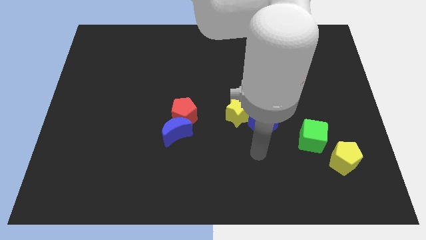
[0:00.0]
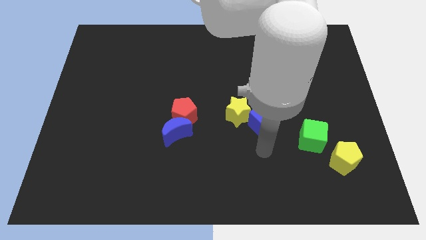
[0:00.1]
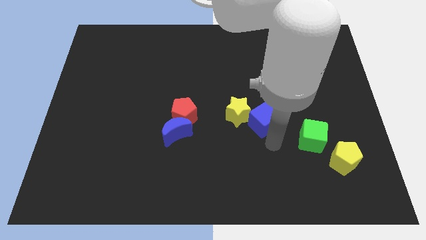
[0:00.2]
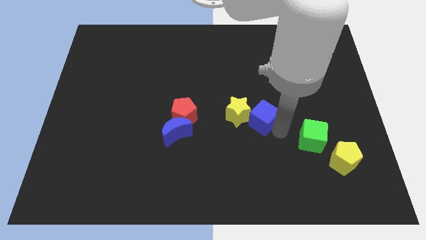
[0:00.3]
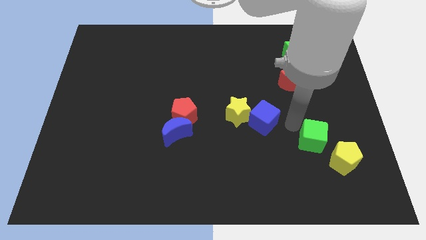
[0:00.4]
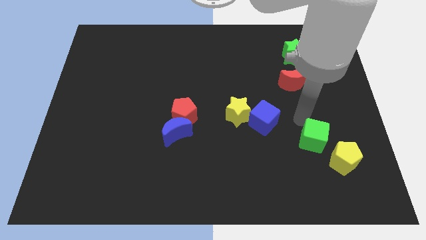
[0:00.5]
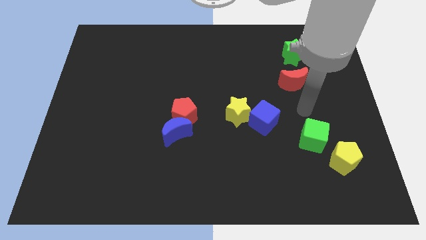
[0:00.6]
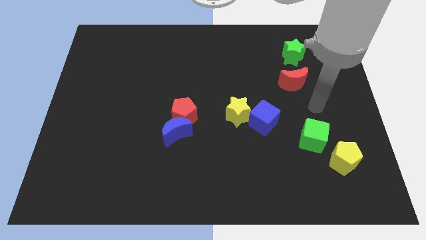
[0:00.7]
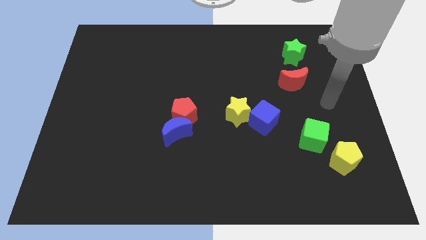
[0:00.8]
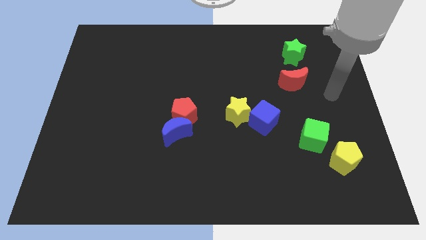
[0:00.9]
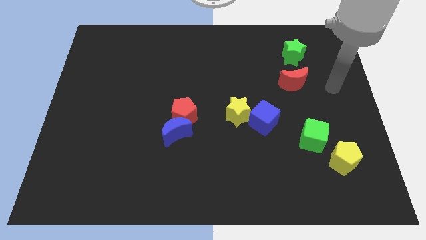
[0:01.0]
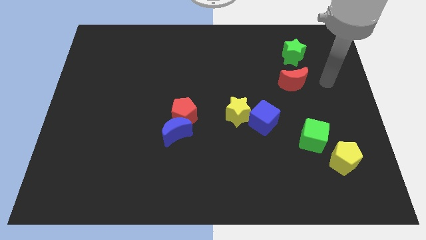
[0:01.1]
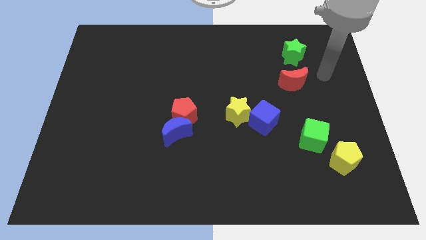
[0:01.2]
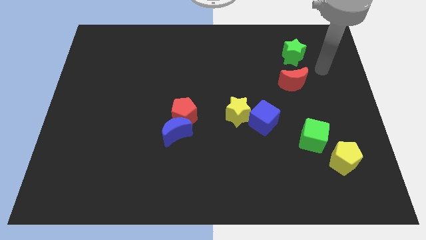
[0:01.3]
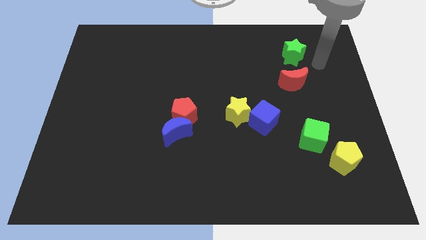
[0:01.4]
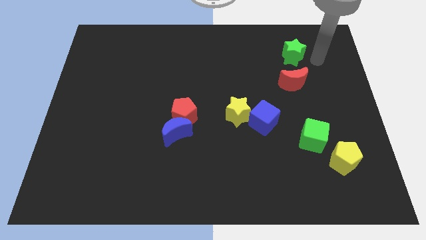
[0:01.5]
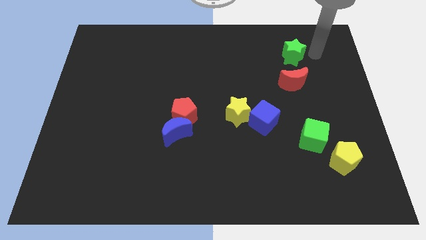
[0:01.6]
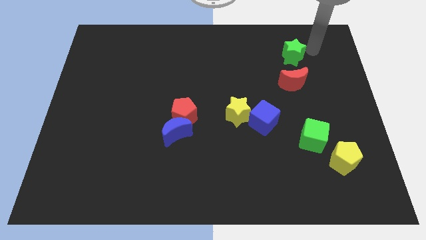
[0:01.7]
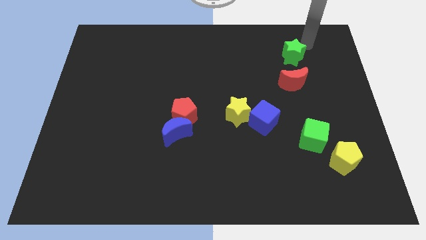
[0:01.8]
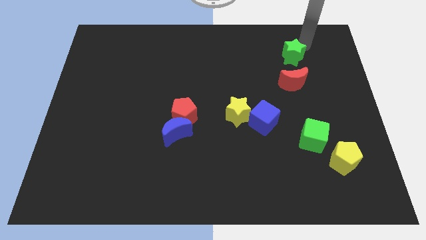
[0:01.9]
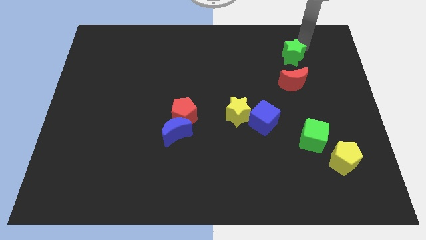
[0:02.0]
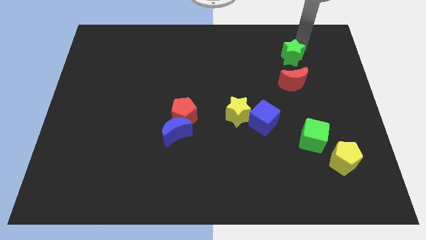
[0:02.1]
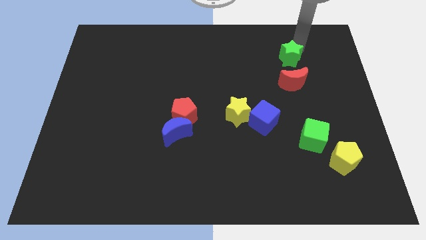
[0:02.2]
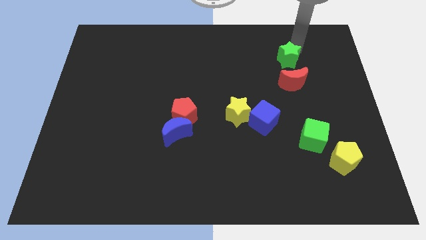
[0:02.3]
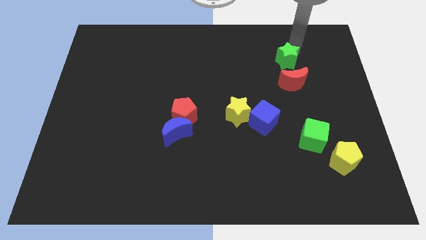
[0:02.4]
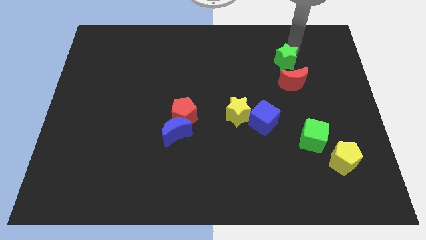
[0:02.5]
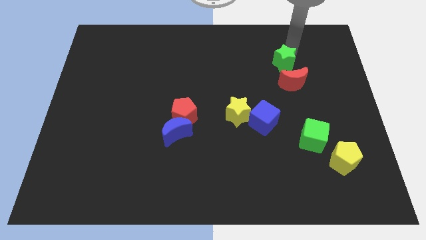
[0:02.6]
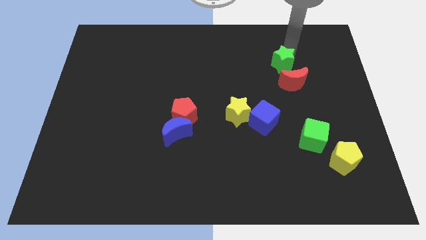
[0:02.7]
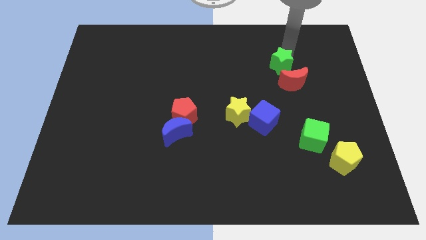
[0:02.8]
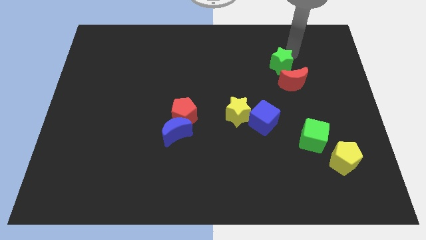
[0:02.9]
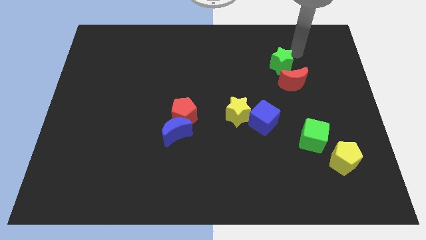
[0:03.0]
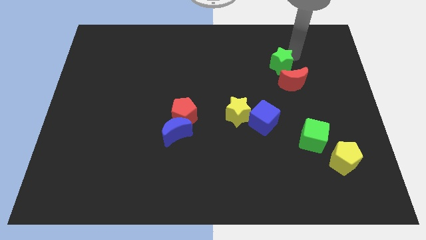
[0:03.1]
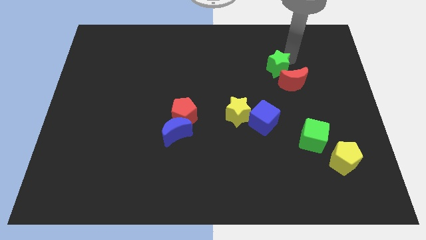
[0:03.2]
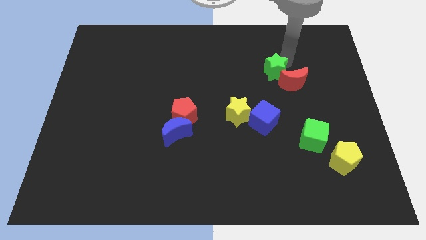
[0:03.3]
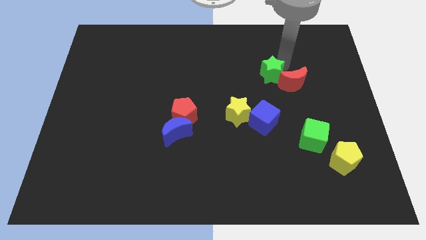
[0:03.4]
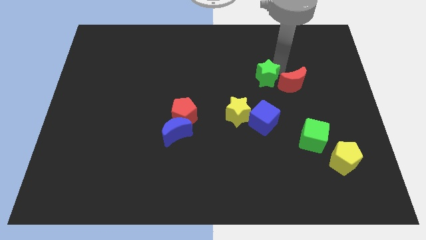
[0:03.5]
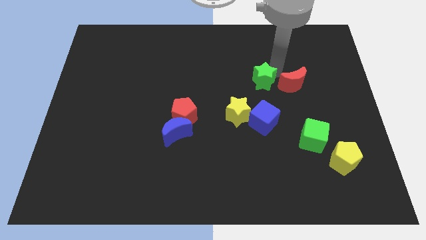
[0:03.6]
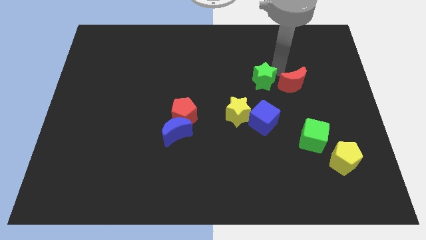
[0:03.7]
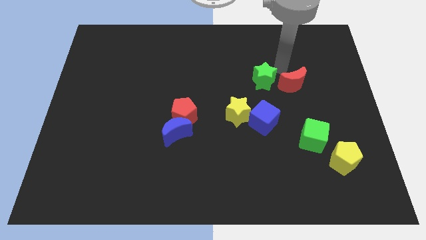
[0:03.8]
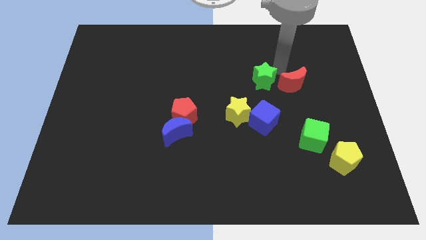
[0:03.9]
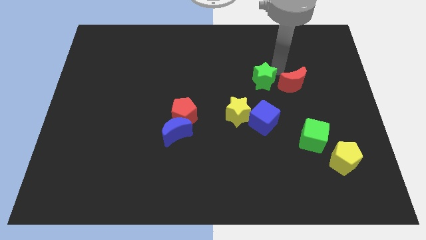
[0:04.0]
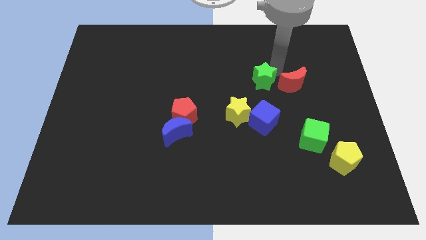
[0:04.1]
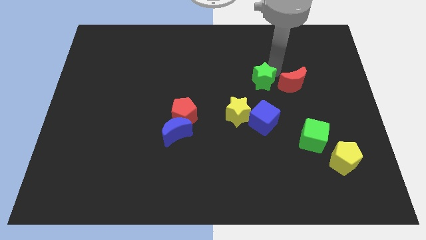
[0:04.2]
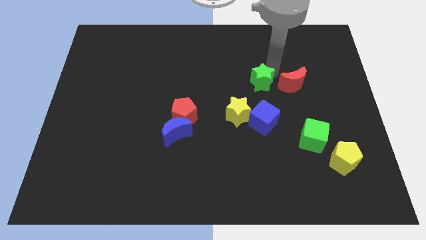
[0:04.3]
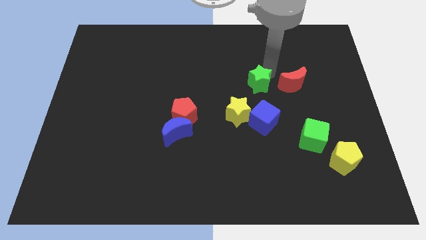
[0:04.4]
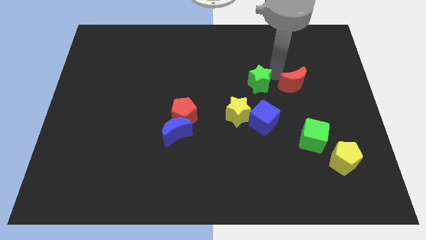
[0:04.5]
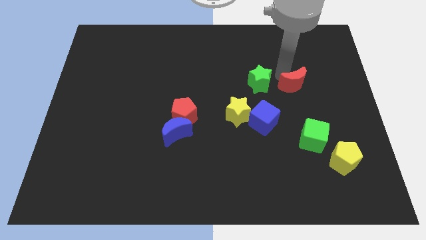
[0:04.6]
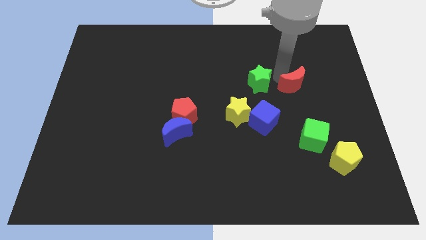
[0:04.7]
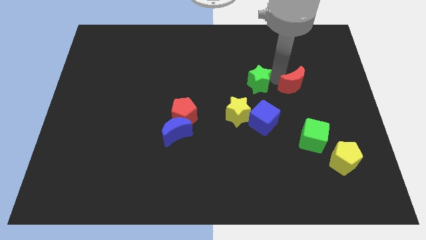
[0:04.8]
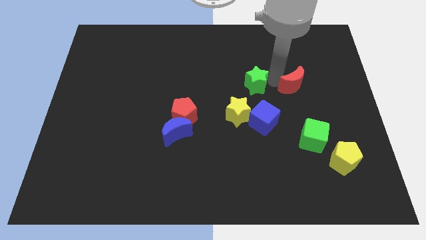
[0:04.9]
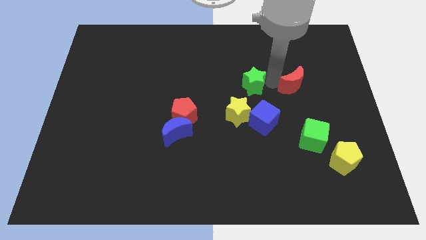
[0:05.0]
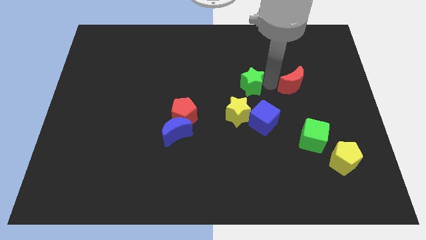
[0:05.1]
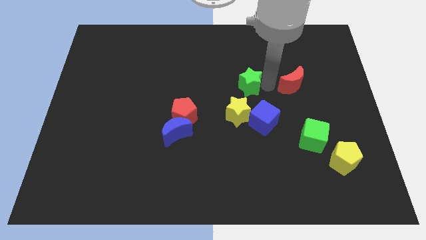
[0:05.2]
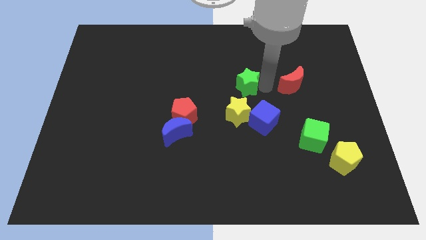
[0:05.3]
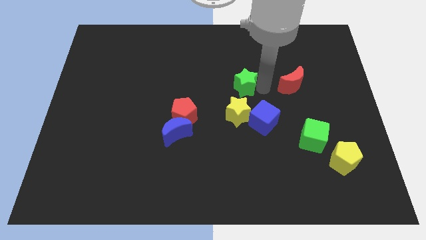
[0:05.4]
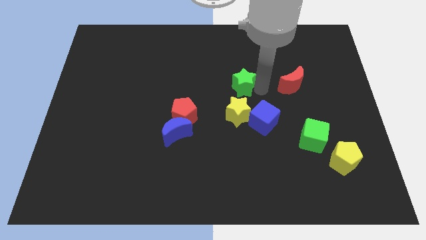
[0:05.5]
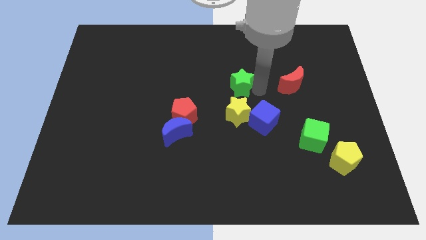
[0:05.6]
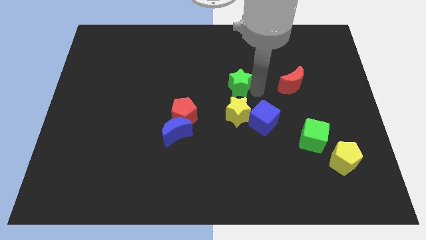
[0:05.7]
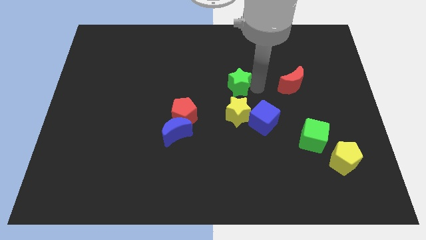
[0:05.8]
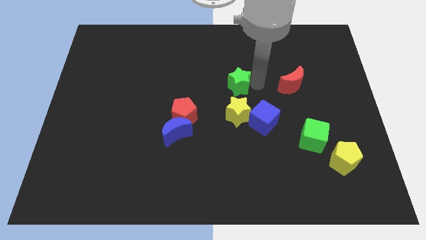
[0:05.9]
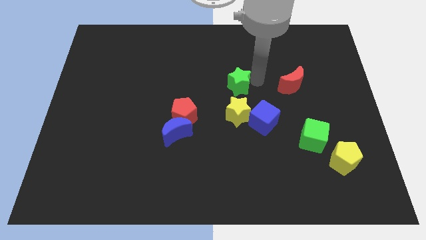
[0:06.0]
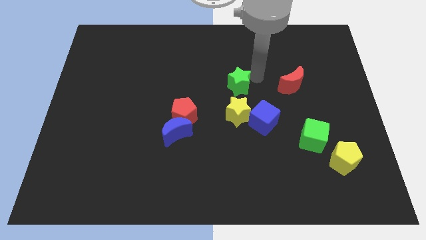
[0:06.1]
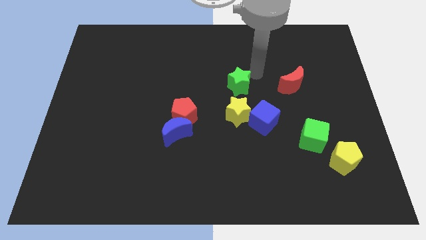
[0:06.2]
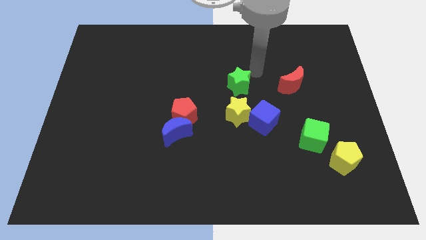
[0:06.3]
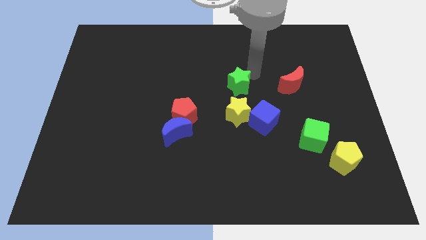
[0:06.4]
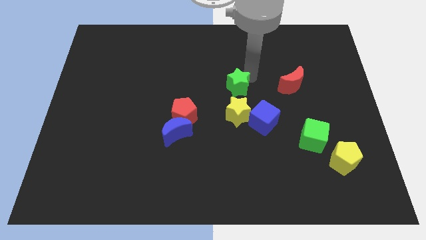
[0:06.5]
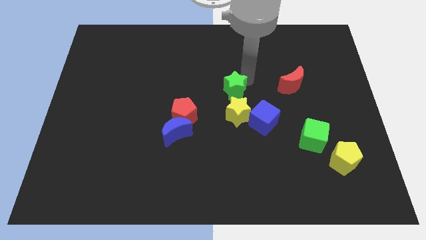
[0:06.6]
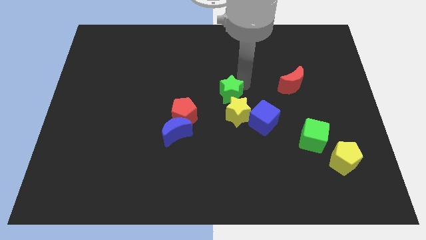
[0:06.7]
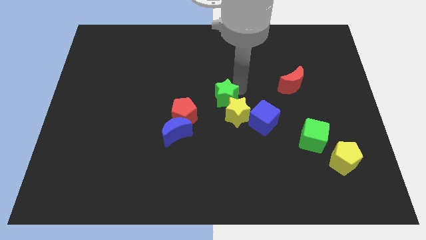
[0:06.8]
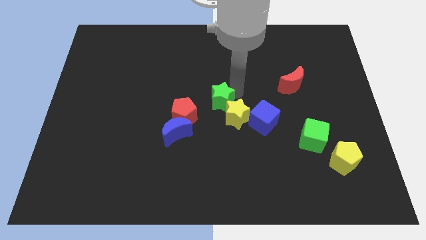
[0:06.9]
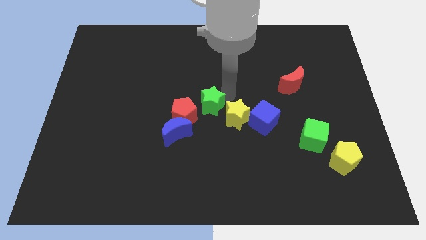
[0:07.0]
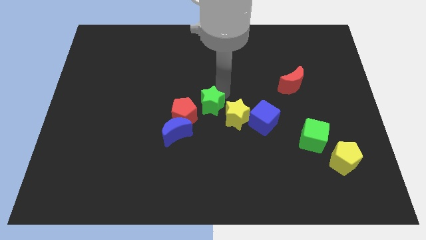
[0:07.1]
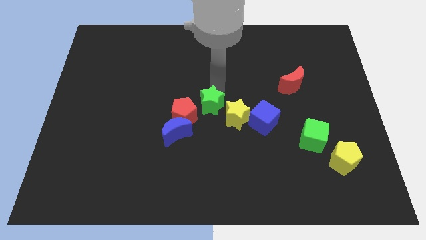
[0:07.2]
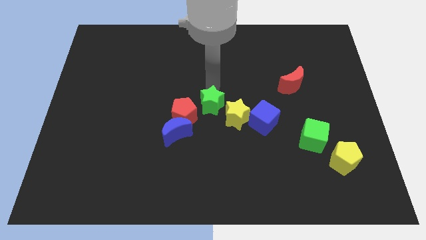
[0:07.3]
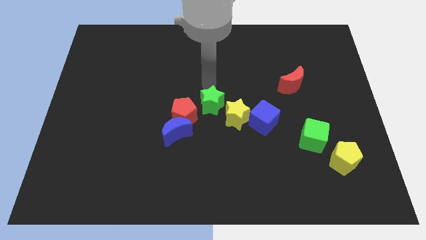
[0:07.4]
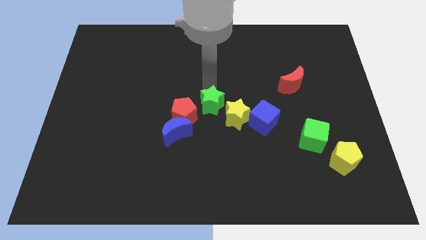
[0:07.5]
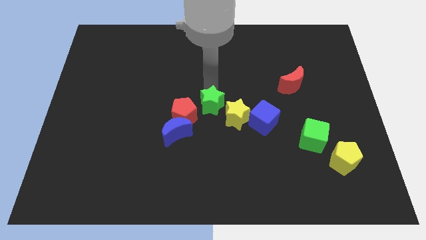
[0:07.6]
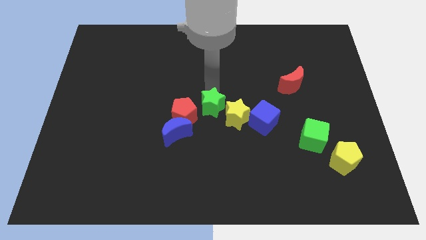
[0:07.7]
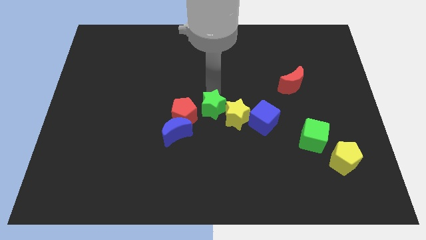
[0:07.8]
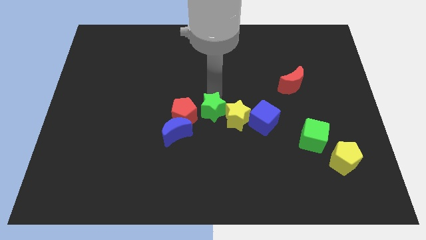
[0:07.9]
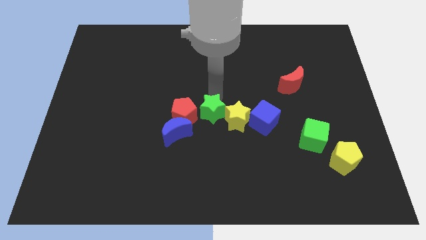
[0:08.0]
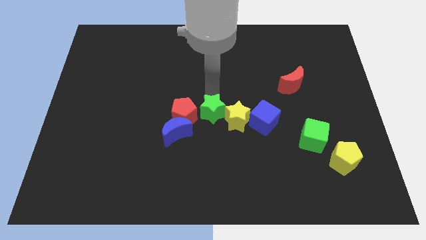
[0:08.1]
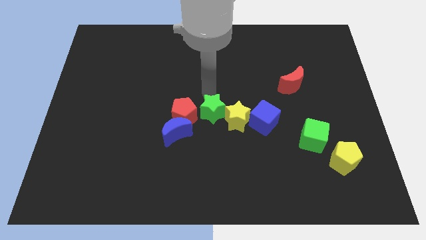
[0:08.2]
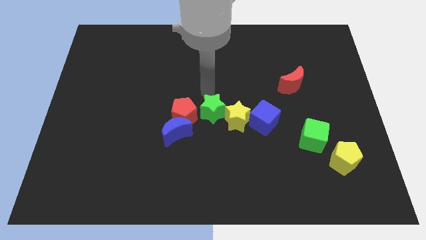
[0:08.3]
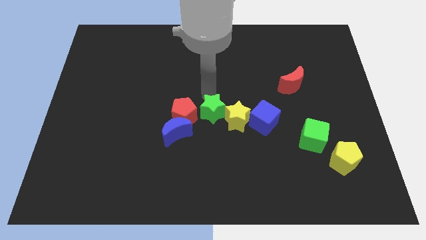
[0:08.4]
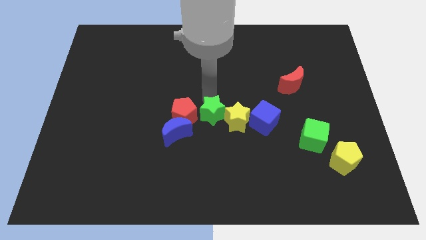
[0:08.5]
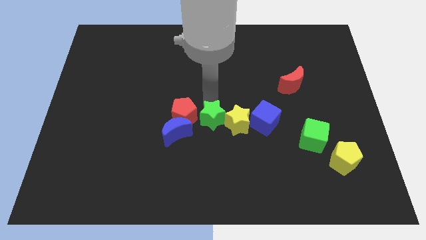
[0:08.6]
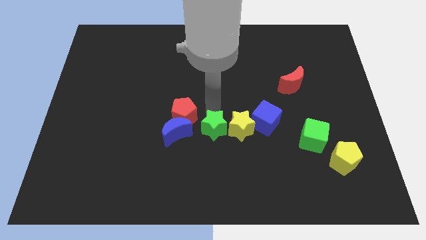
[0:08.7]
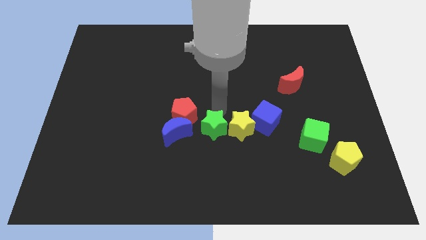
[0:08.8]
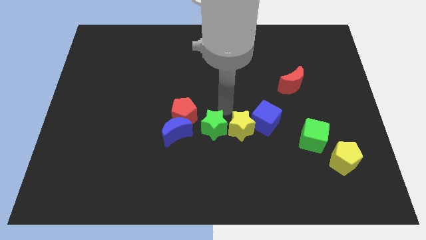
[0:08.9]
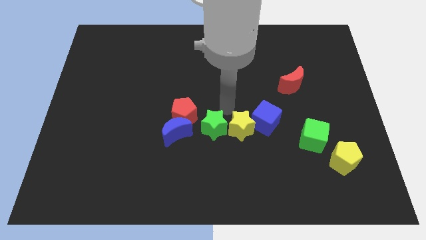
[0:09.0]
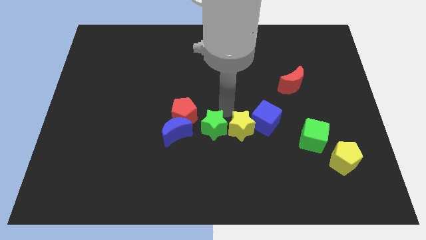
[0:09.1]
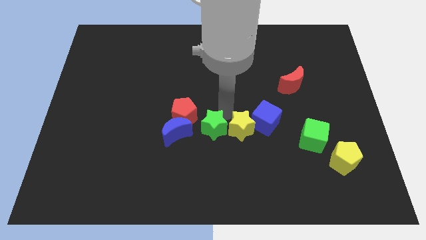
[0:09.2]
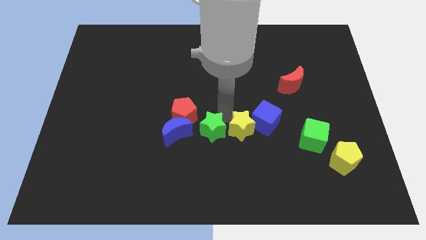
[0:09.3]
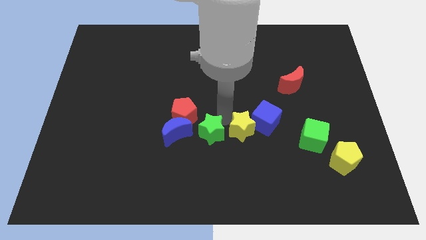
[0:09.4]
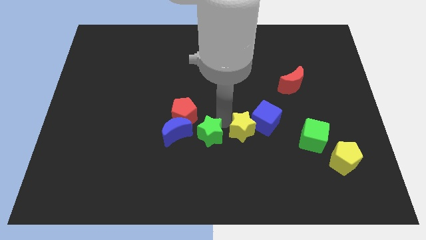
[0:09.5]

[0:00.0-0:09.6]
move the green star to the bottom right side of the blue moon
